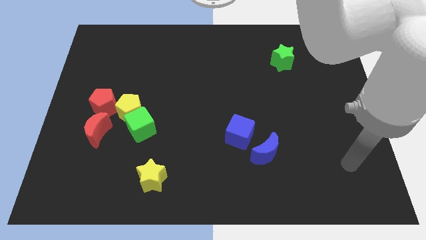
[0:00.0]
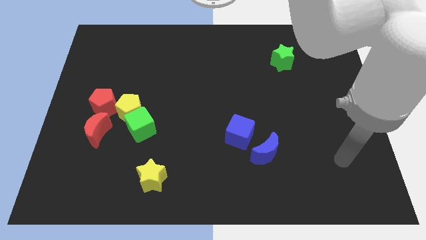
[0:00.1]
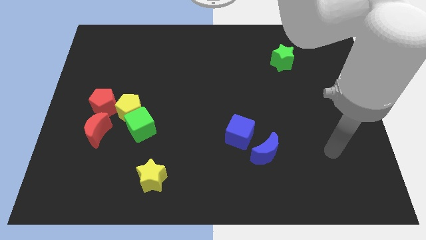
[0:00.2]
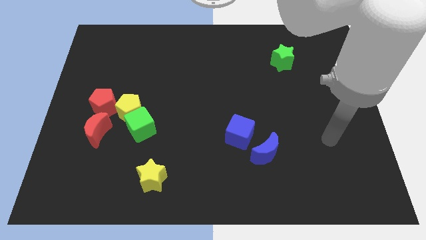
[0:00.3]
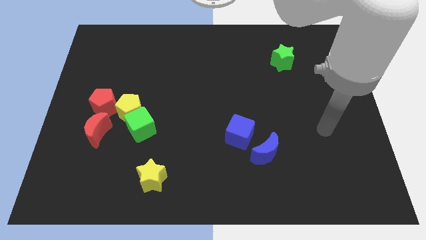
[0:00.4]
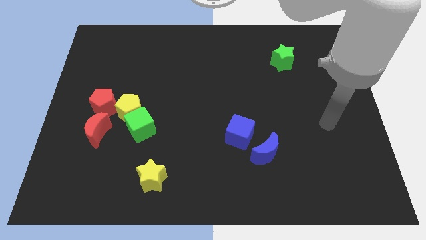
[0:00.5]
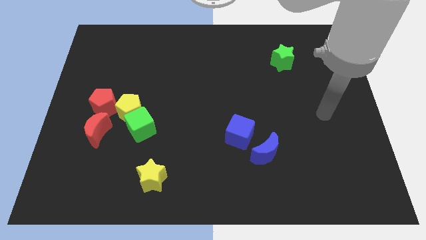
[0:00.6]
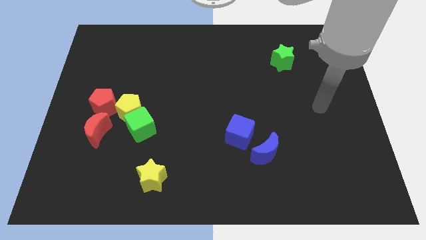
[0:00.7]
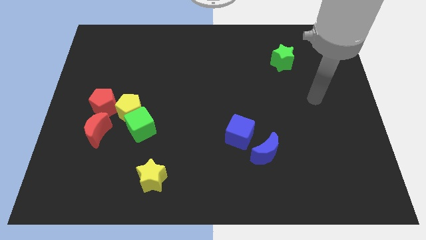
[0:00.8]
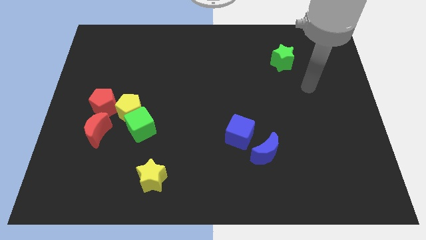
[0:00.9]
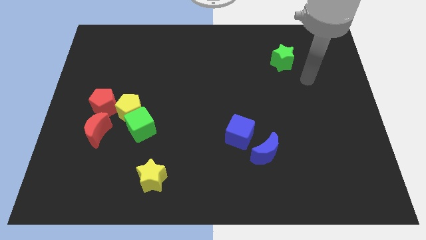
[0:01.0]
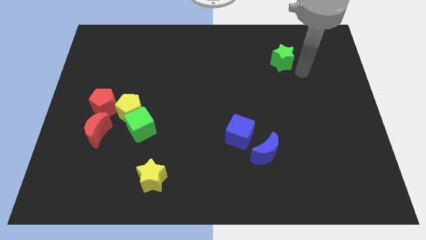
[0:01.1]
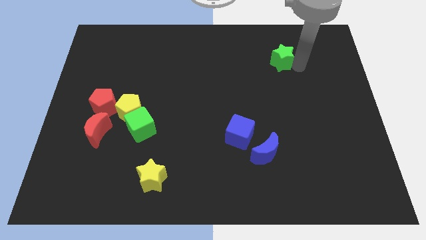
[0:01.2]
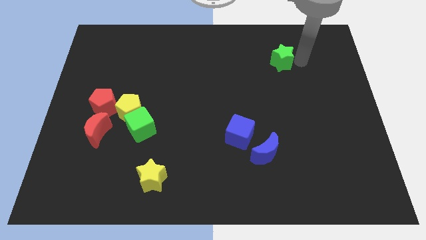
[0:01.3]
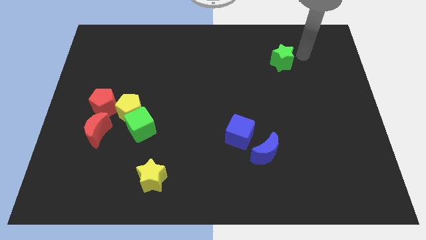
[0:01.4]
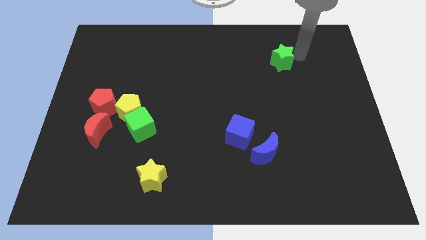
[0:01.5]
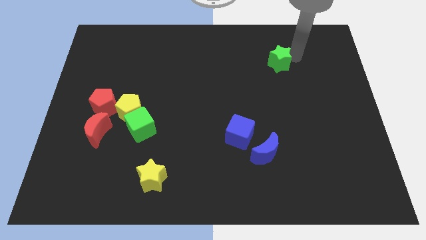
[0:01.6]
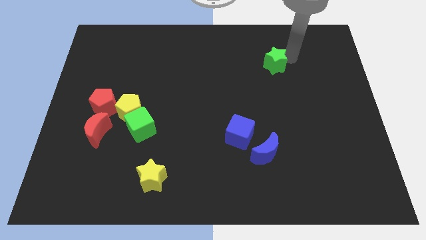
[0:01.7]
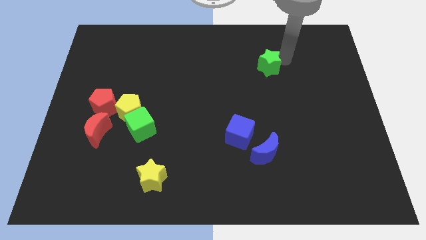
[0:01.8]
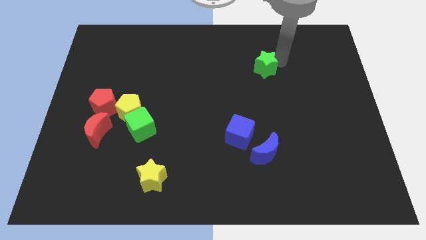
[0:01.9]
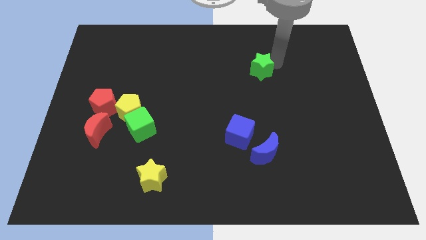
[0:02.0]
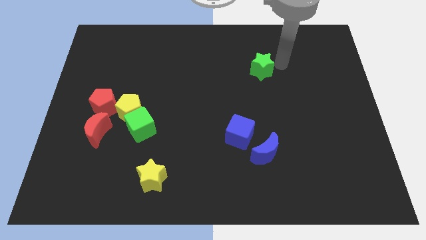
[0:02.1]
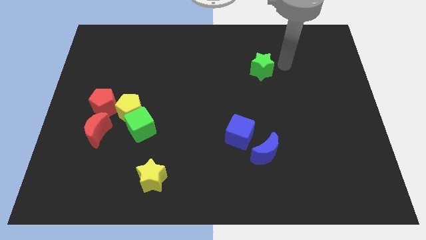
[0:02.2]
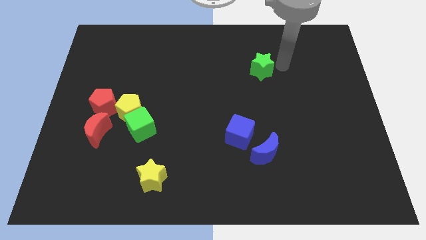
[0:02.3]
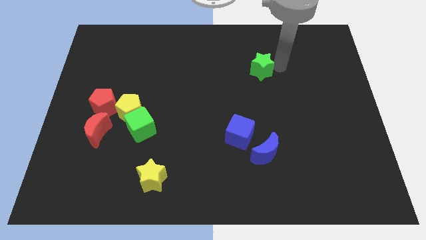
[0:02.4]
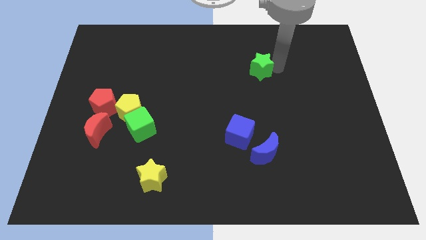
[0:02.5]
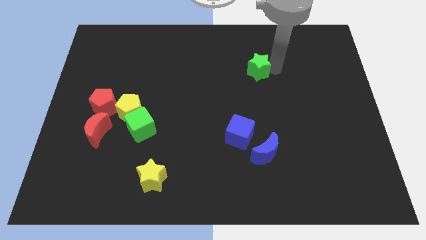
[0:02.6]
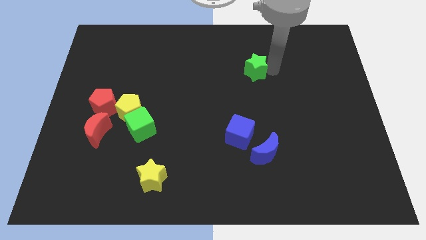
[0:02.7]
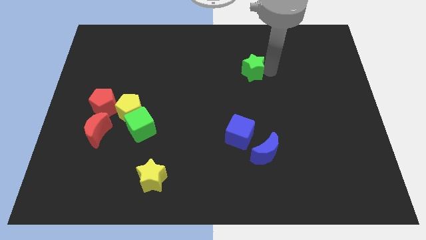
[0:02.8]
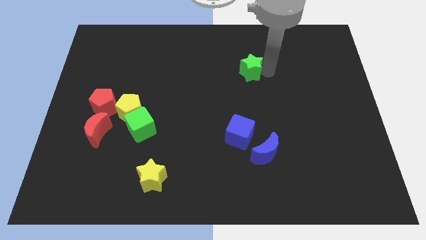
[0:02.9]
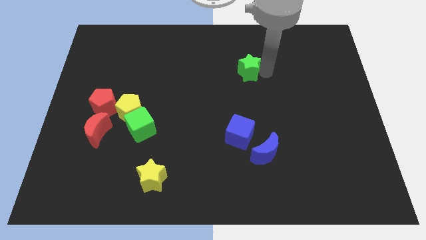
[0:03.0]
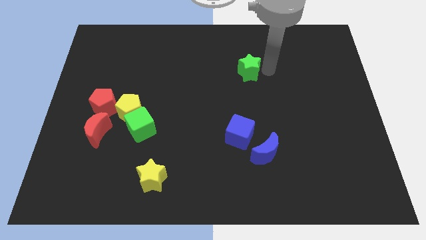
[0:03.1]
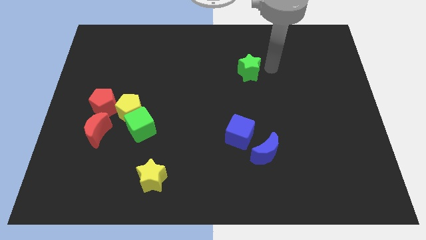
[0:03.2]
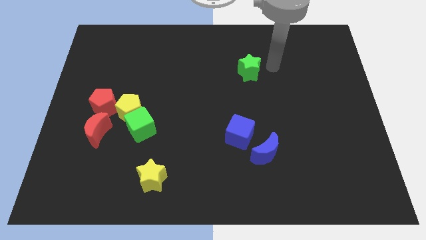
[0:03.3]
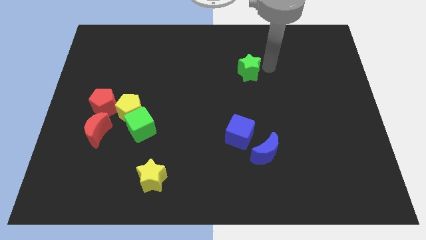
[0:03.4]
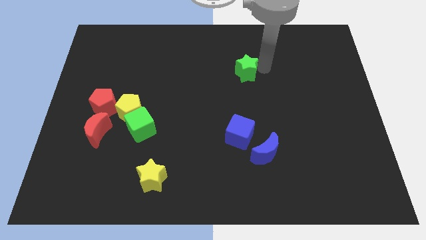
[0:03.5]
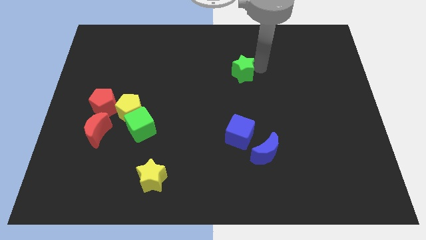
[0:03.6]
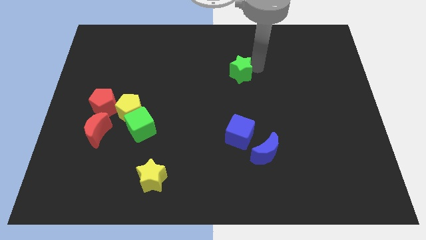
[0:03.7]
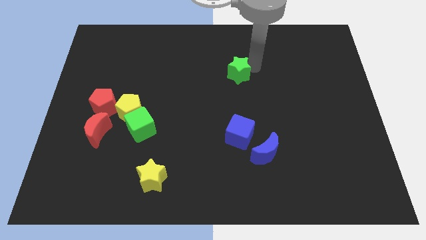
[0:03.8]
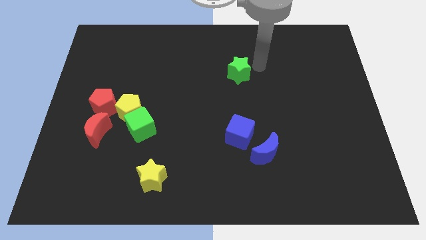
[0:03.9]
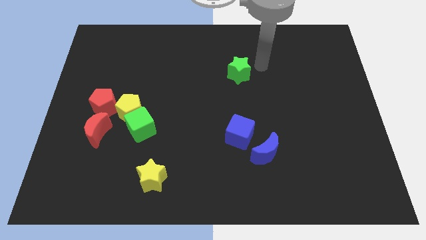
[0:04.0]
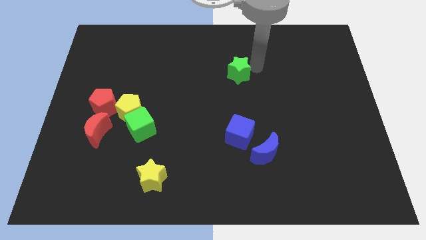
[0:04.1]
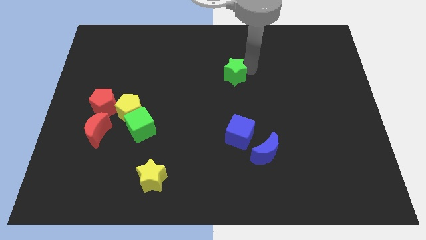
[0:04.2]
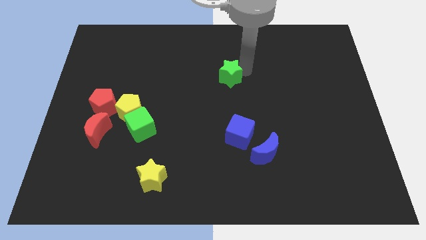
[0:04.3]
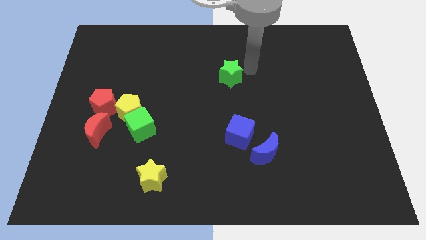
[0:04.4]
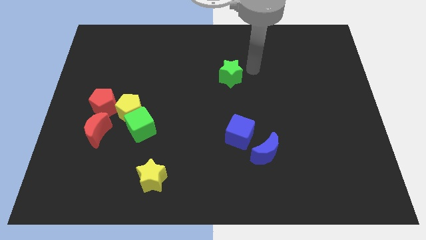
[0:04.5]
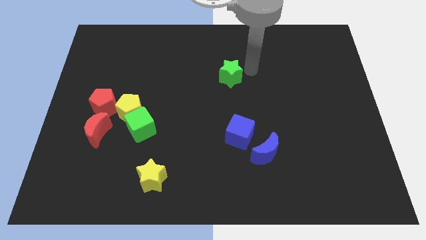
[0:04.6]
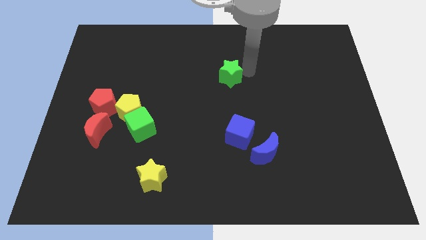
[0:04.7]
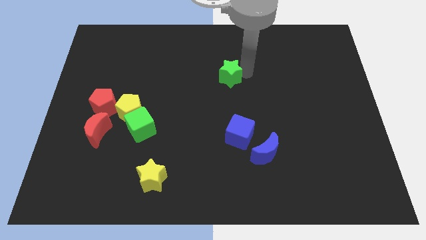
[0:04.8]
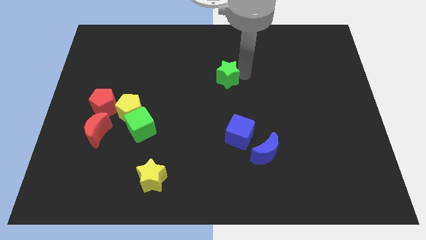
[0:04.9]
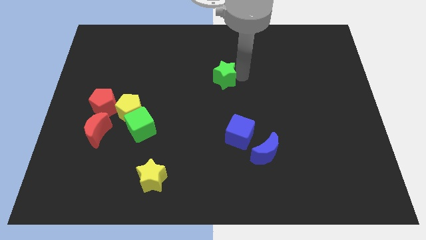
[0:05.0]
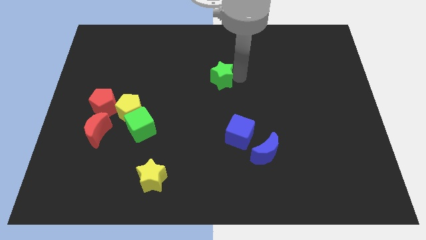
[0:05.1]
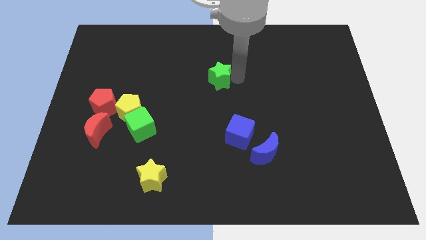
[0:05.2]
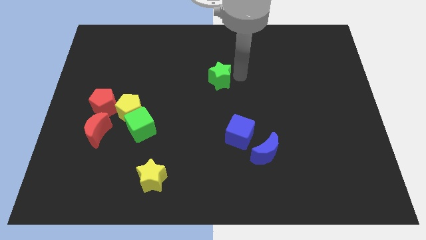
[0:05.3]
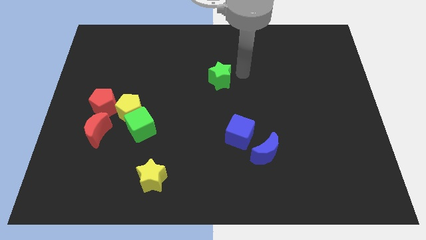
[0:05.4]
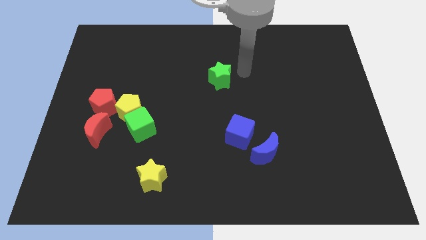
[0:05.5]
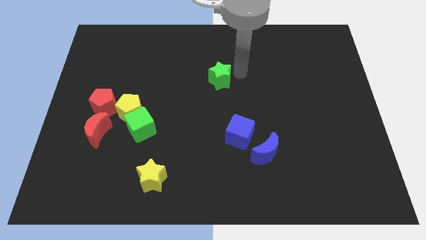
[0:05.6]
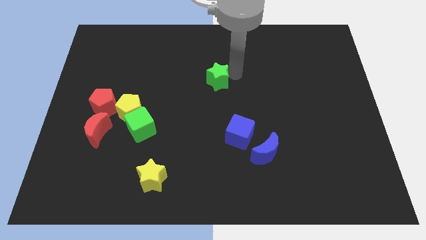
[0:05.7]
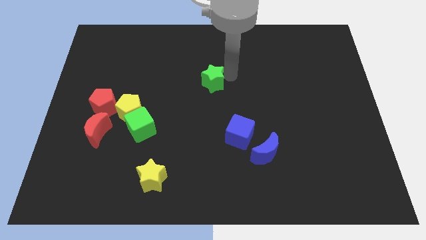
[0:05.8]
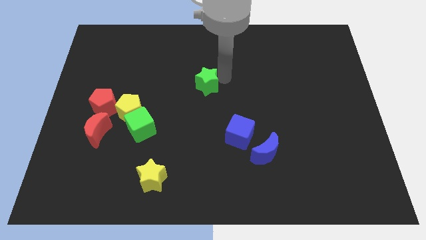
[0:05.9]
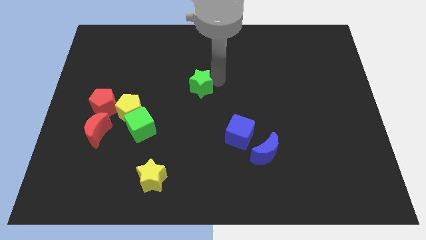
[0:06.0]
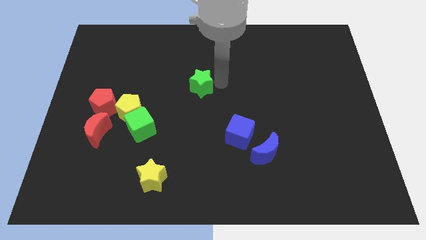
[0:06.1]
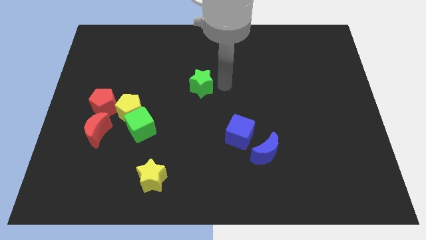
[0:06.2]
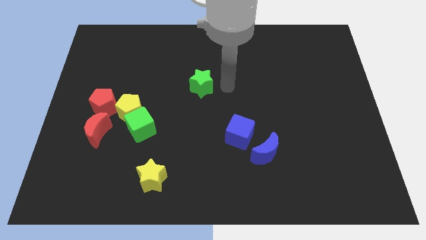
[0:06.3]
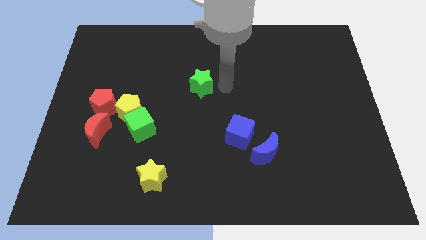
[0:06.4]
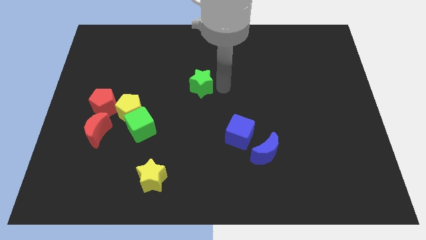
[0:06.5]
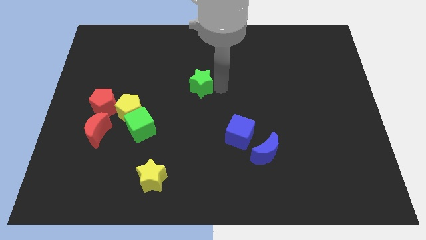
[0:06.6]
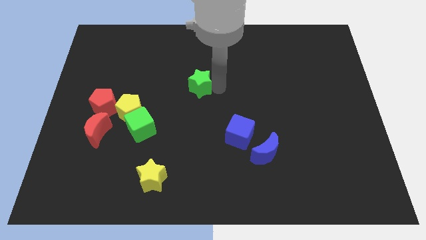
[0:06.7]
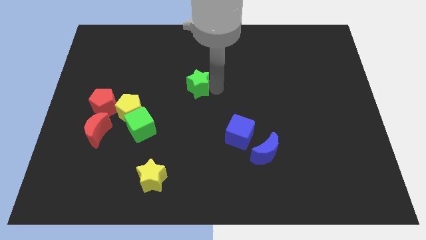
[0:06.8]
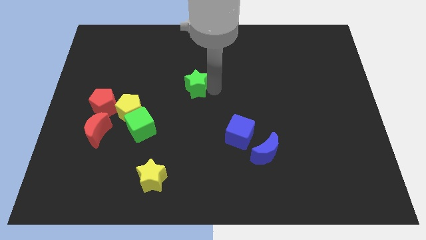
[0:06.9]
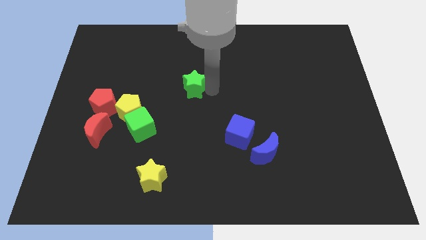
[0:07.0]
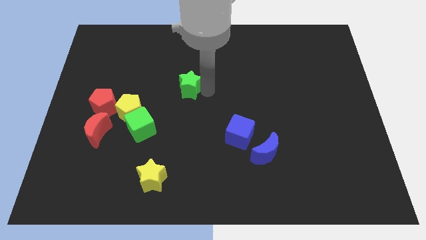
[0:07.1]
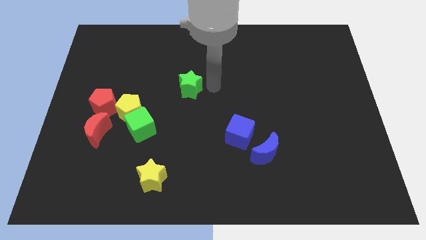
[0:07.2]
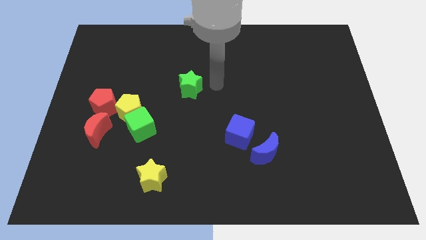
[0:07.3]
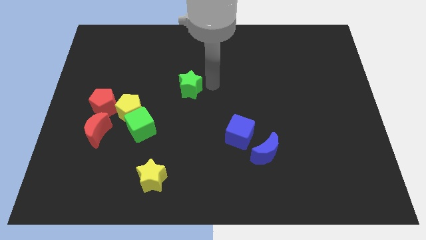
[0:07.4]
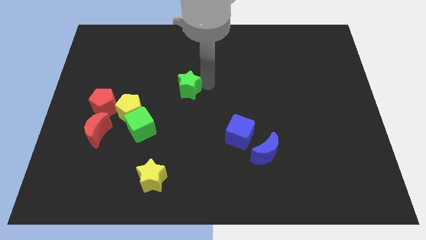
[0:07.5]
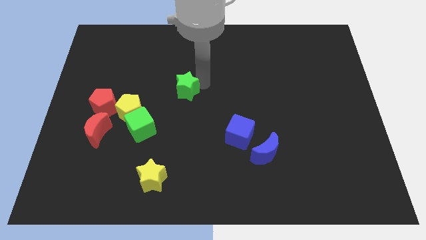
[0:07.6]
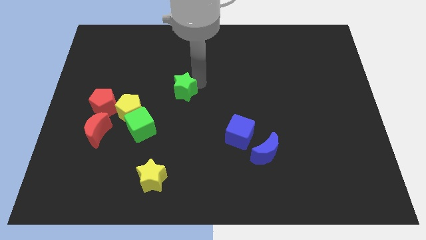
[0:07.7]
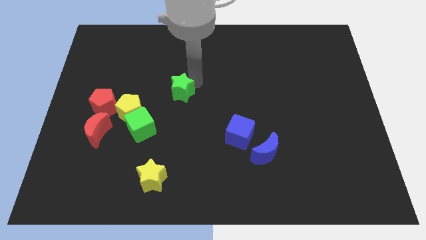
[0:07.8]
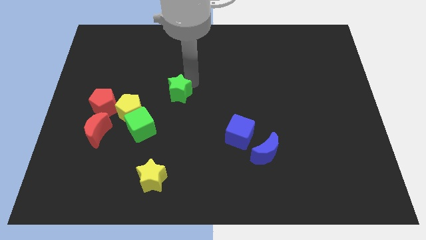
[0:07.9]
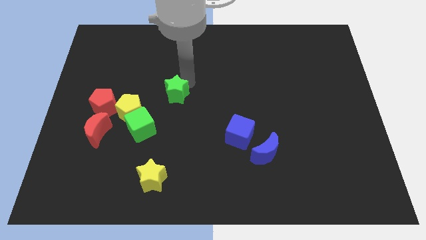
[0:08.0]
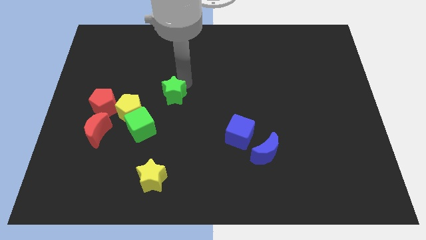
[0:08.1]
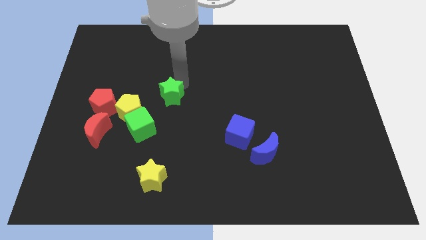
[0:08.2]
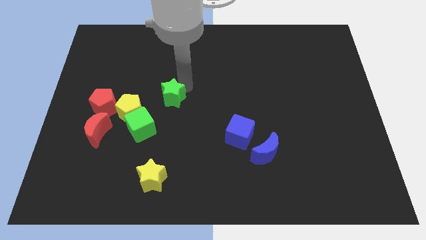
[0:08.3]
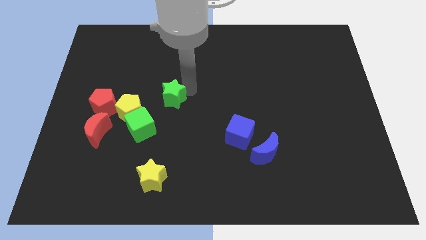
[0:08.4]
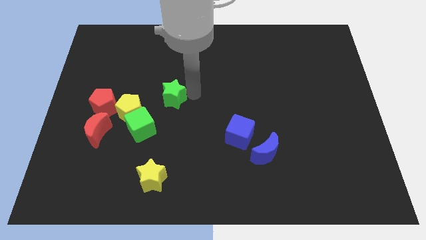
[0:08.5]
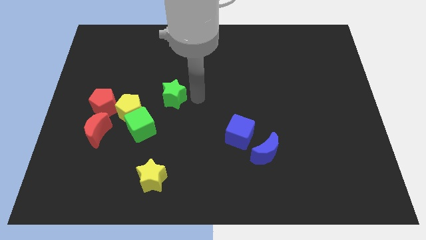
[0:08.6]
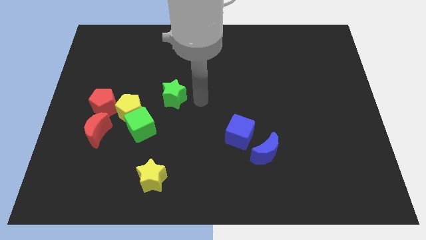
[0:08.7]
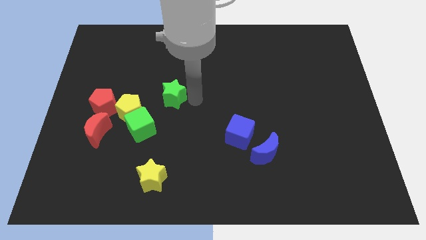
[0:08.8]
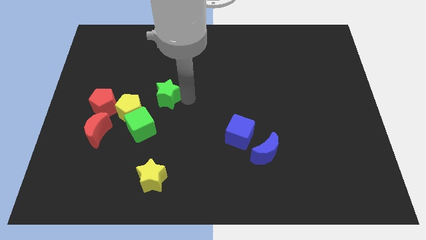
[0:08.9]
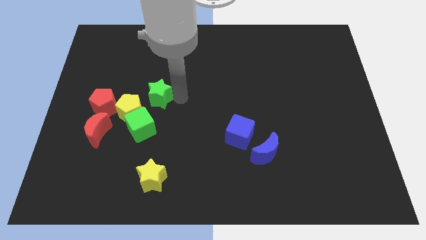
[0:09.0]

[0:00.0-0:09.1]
put the green star above the green cube
